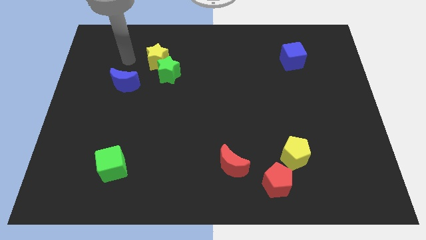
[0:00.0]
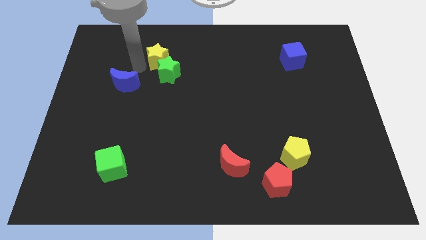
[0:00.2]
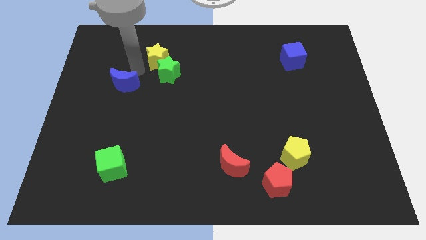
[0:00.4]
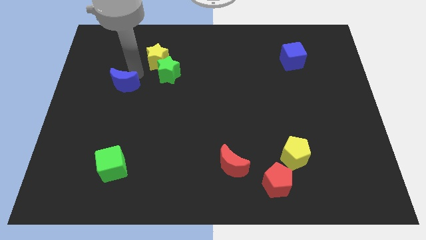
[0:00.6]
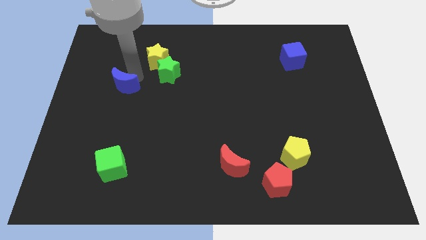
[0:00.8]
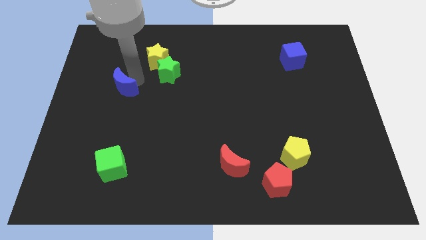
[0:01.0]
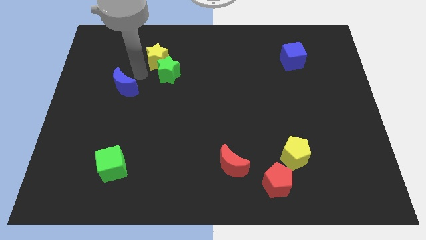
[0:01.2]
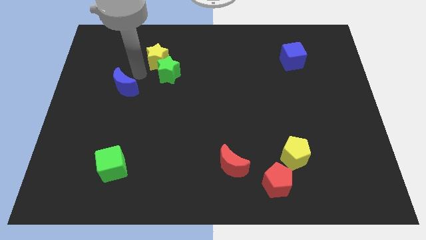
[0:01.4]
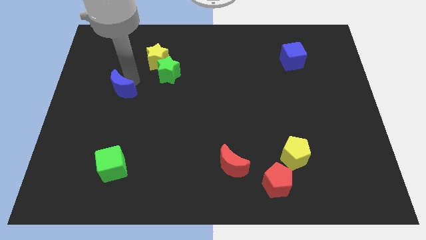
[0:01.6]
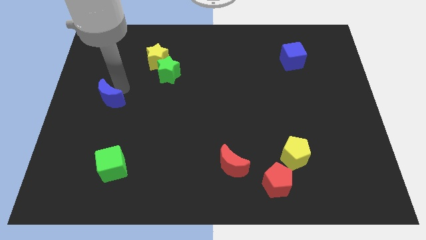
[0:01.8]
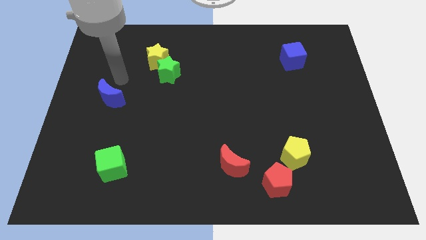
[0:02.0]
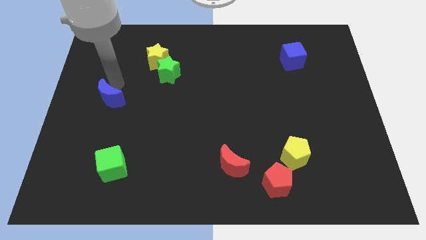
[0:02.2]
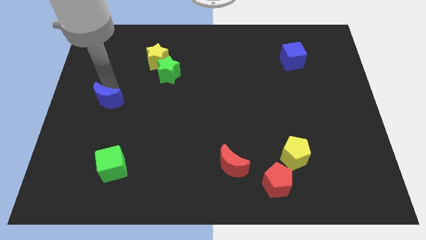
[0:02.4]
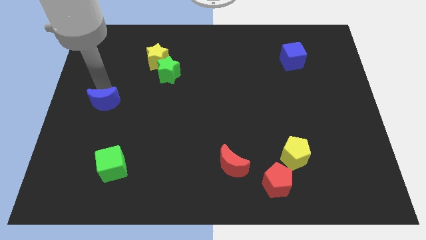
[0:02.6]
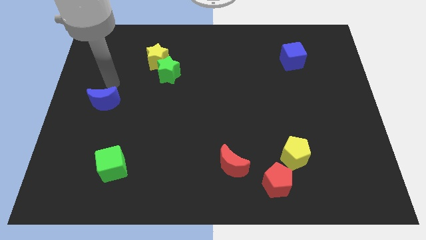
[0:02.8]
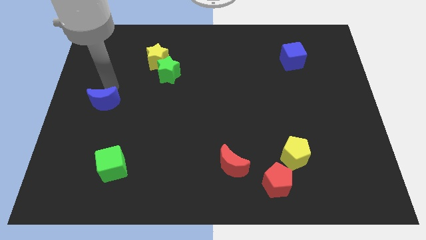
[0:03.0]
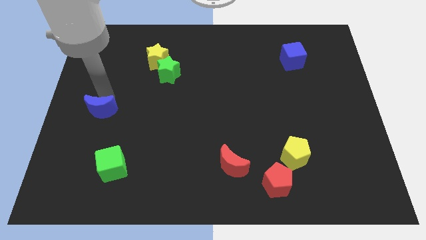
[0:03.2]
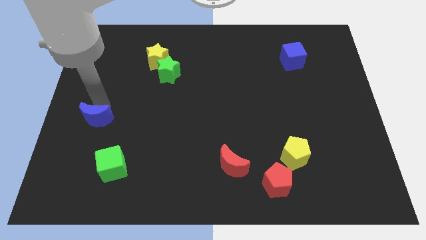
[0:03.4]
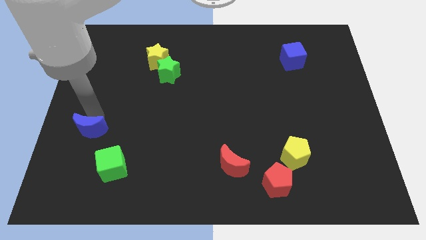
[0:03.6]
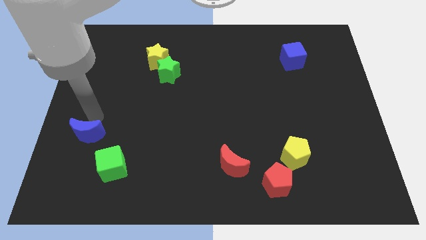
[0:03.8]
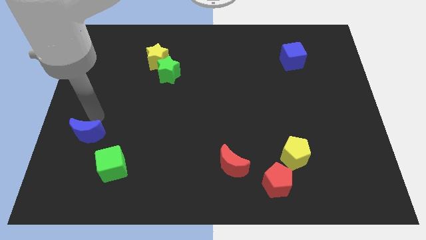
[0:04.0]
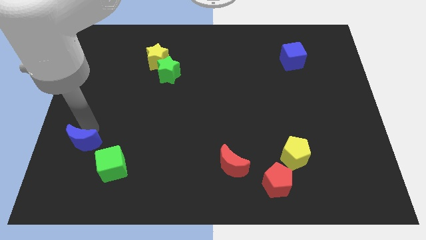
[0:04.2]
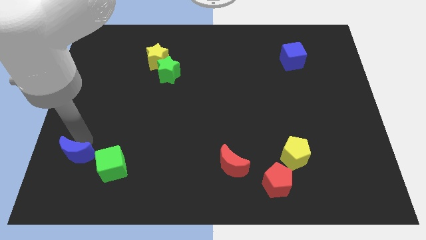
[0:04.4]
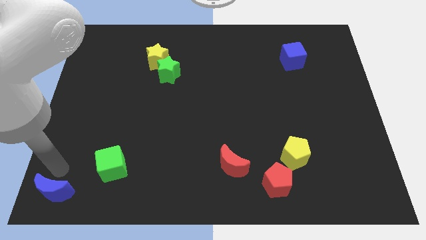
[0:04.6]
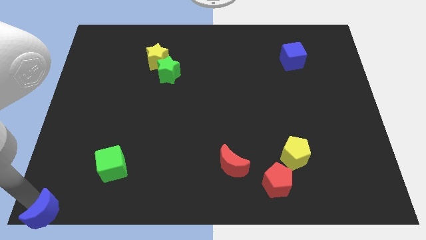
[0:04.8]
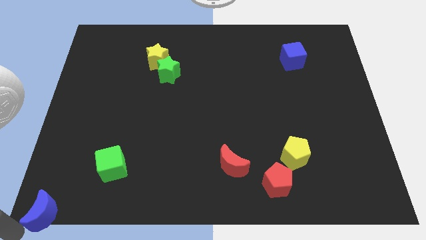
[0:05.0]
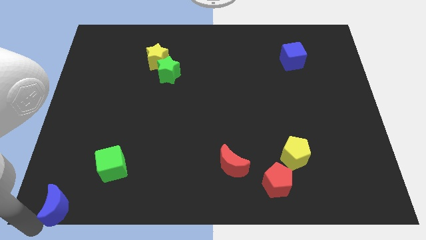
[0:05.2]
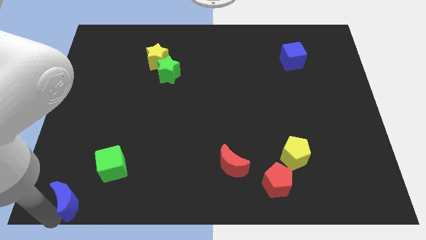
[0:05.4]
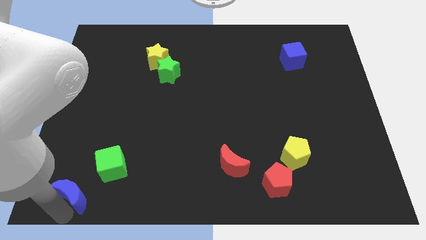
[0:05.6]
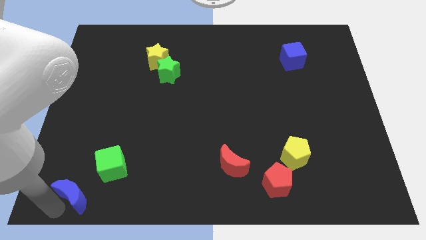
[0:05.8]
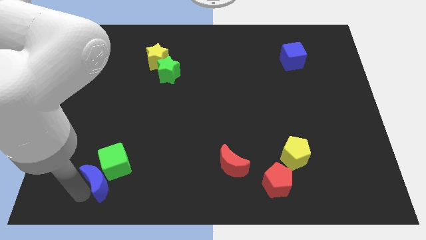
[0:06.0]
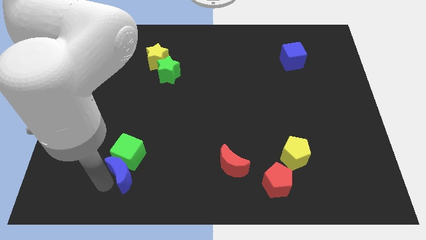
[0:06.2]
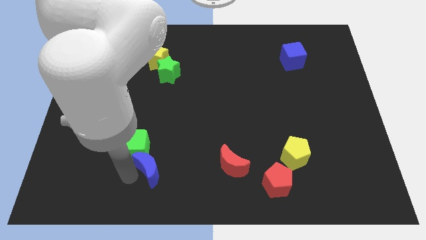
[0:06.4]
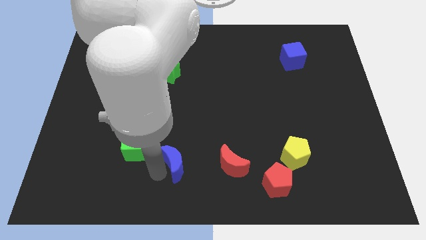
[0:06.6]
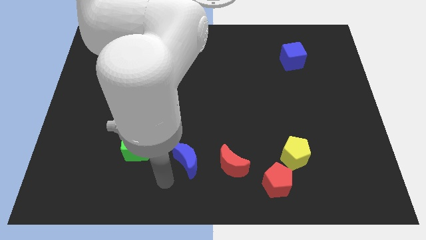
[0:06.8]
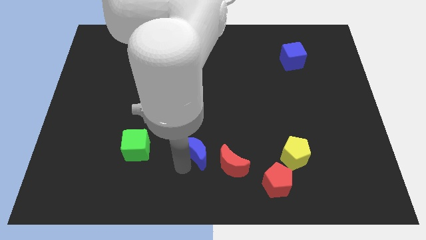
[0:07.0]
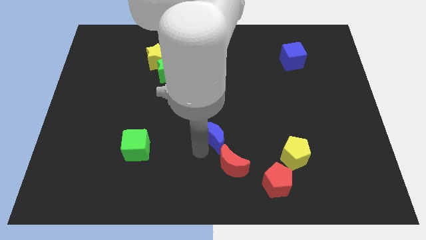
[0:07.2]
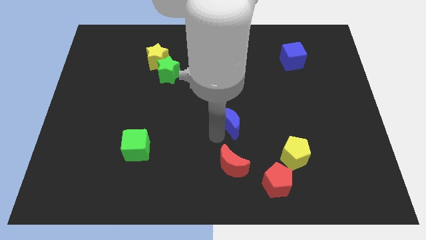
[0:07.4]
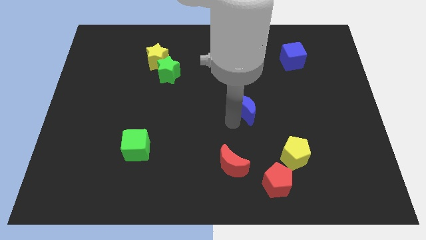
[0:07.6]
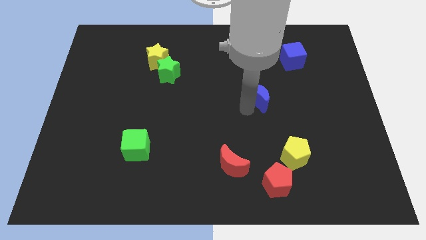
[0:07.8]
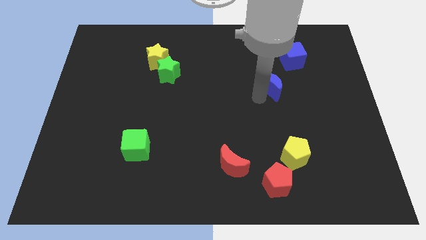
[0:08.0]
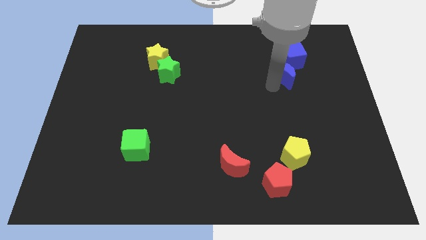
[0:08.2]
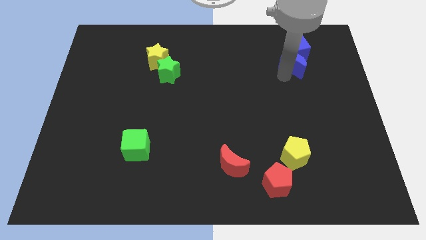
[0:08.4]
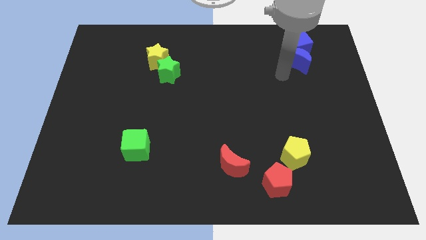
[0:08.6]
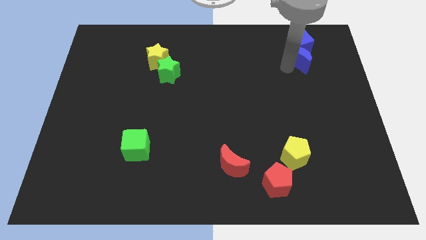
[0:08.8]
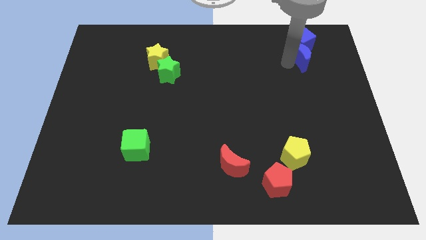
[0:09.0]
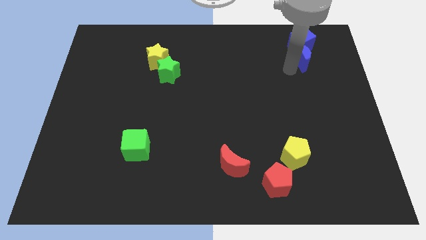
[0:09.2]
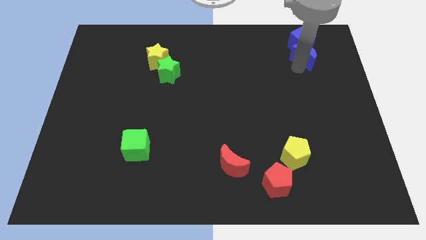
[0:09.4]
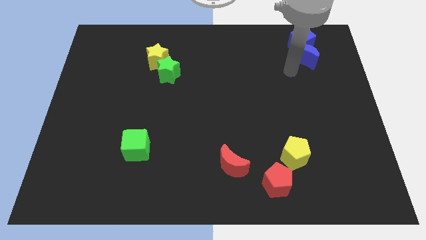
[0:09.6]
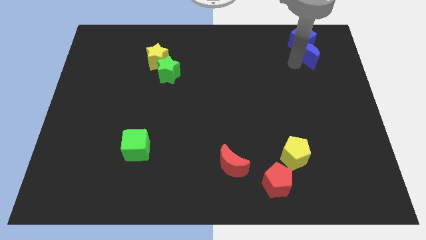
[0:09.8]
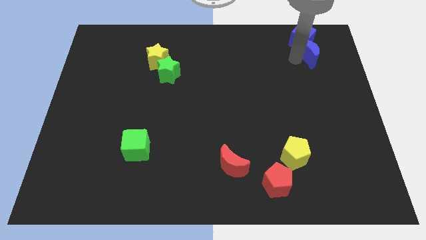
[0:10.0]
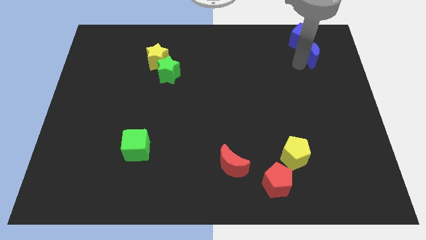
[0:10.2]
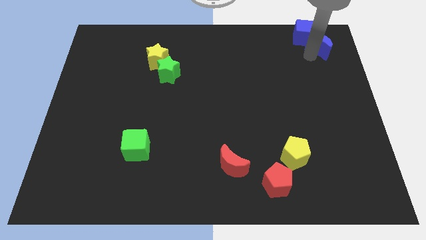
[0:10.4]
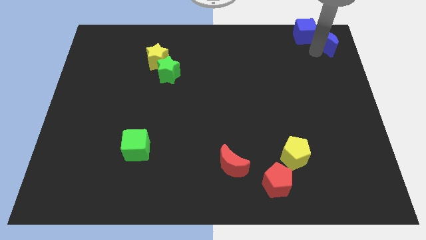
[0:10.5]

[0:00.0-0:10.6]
move the blue moon to the upper right corner

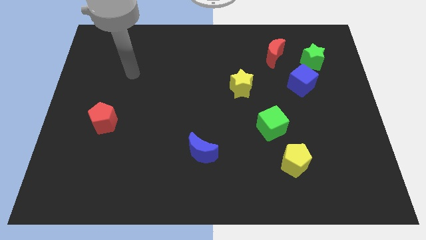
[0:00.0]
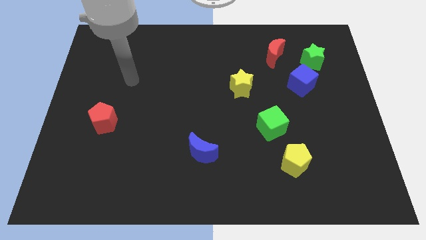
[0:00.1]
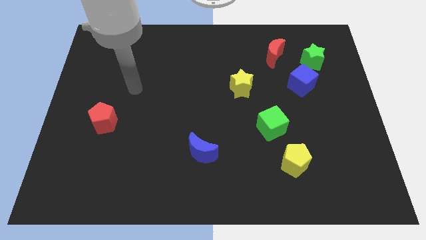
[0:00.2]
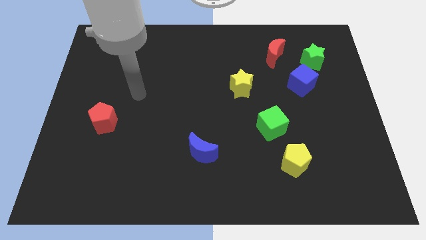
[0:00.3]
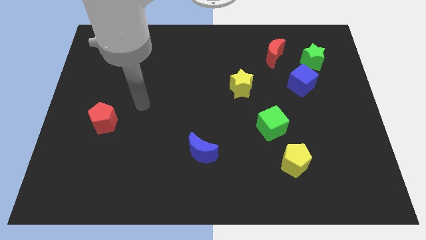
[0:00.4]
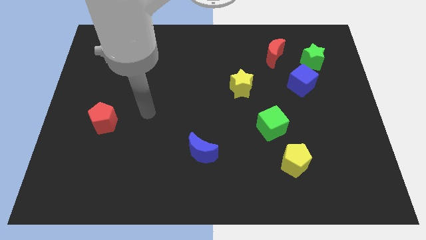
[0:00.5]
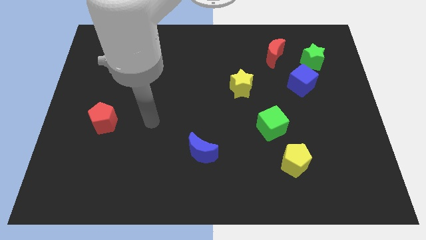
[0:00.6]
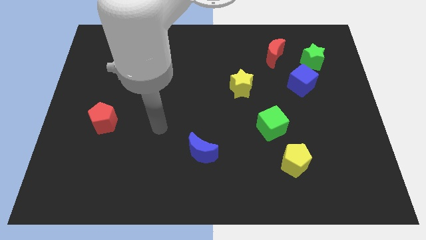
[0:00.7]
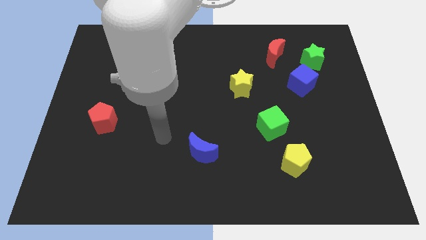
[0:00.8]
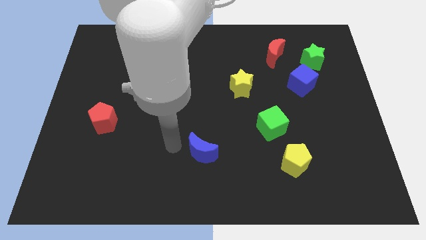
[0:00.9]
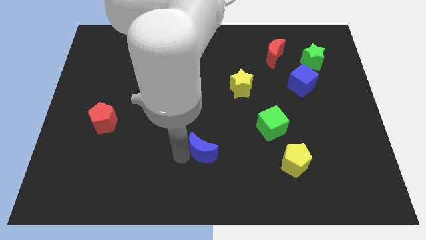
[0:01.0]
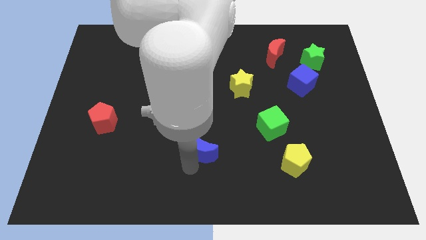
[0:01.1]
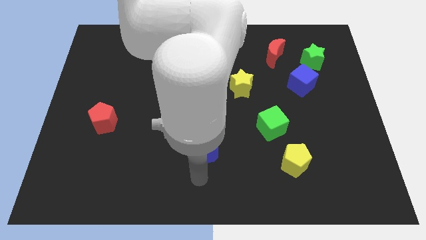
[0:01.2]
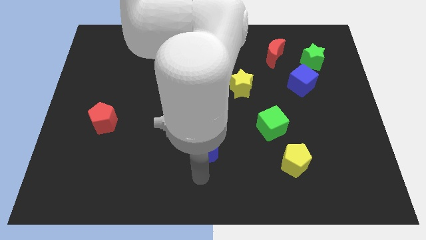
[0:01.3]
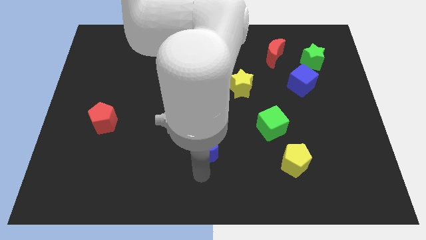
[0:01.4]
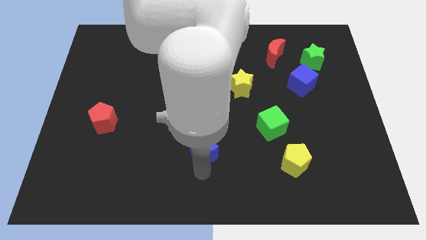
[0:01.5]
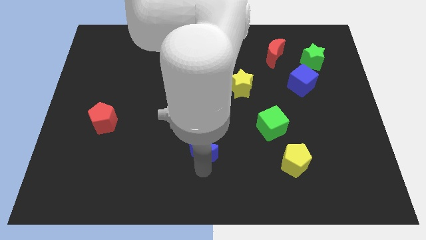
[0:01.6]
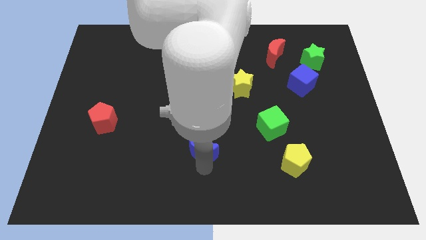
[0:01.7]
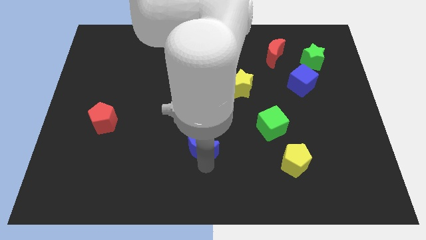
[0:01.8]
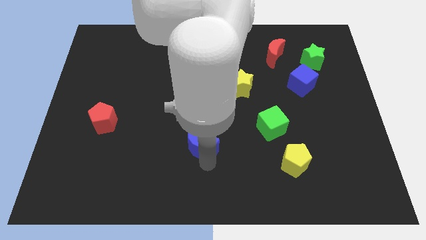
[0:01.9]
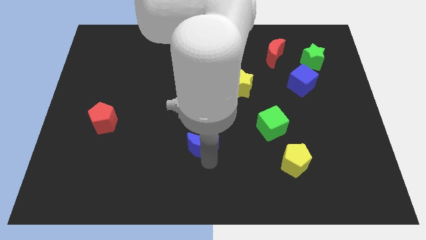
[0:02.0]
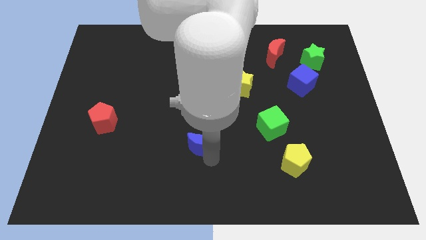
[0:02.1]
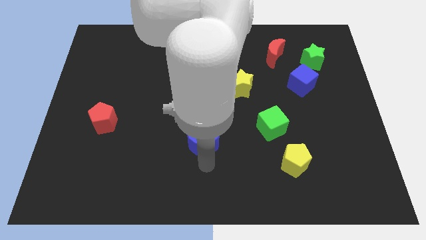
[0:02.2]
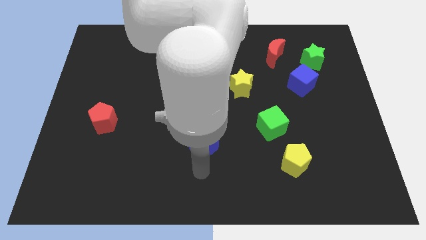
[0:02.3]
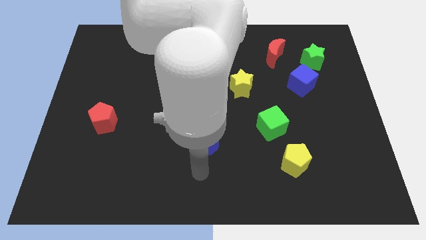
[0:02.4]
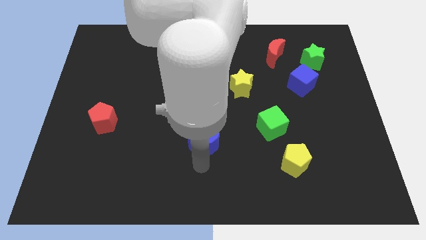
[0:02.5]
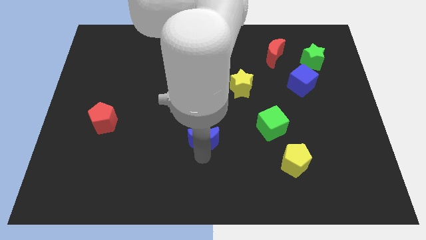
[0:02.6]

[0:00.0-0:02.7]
slide the blue moon to the middle
